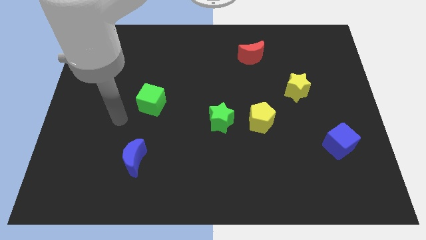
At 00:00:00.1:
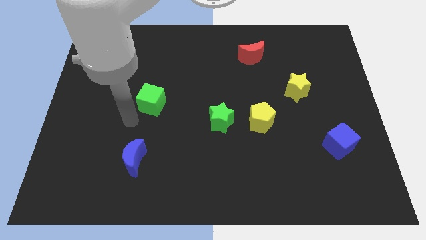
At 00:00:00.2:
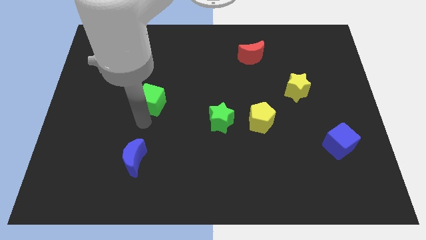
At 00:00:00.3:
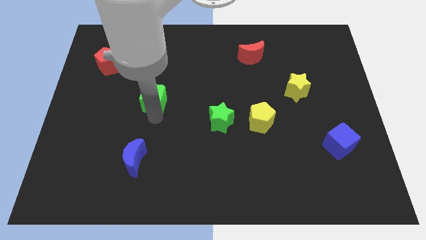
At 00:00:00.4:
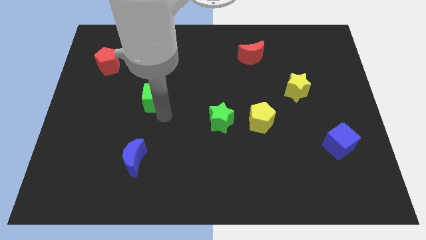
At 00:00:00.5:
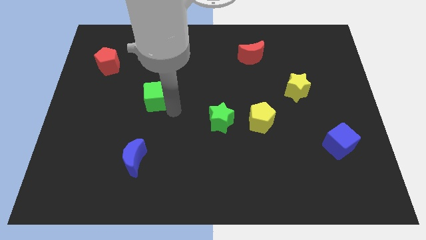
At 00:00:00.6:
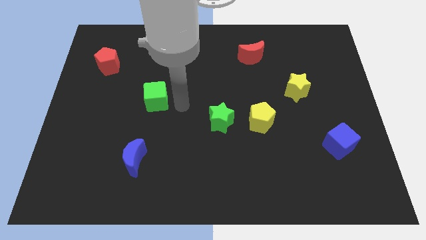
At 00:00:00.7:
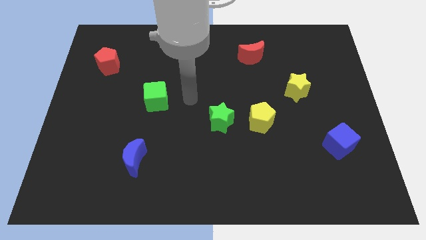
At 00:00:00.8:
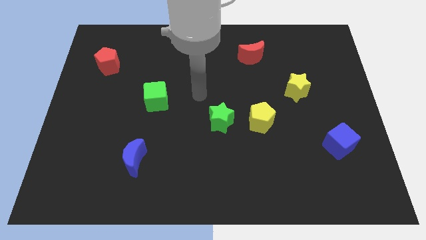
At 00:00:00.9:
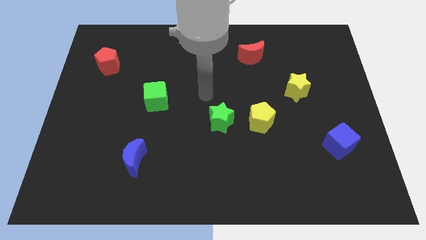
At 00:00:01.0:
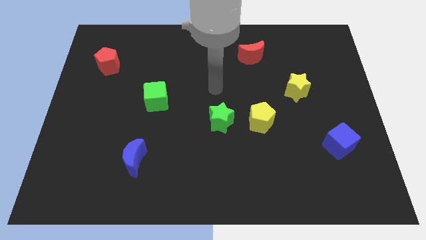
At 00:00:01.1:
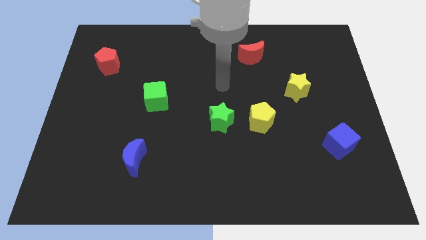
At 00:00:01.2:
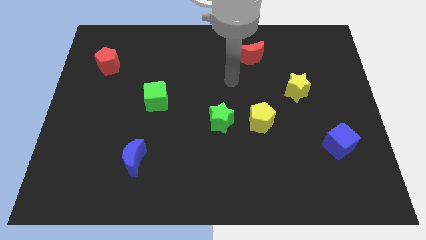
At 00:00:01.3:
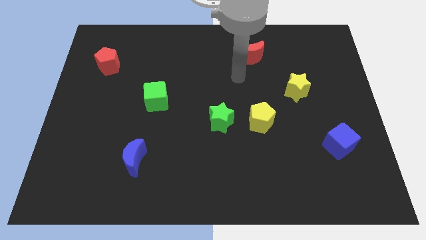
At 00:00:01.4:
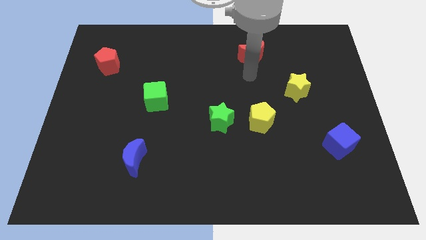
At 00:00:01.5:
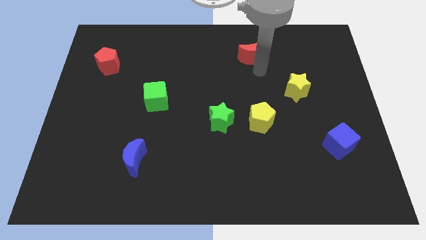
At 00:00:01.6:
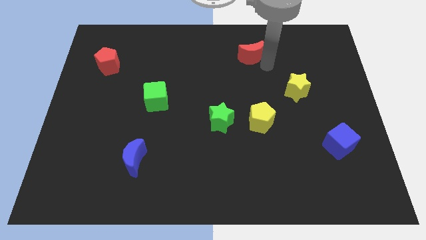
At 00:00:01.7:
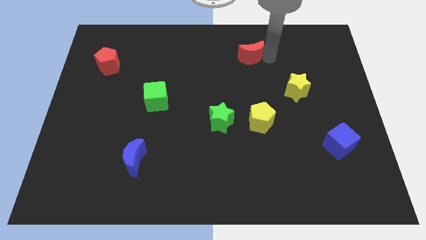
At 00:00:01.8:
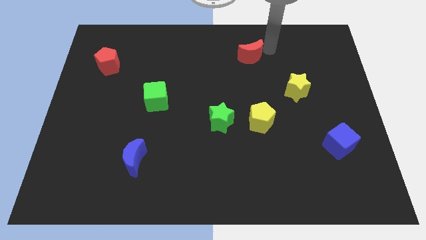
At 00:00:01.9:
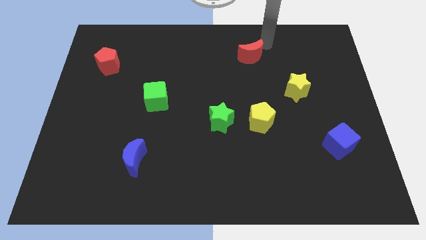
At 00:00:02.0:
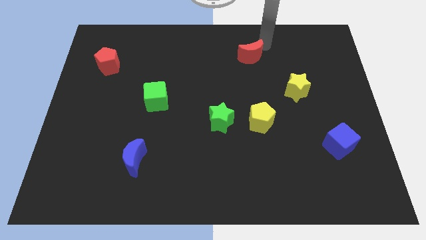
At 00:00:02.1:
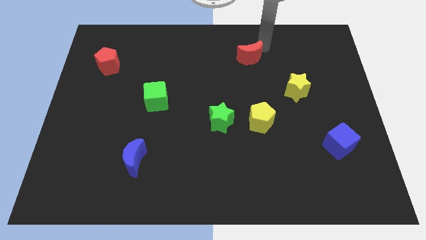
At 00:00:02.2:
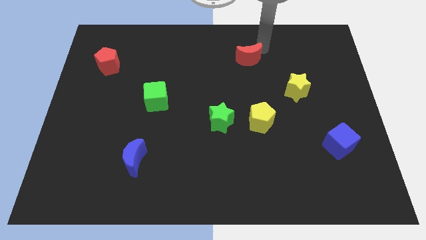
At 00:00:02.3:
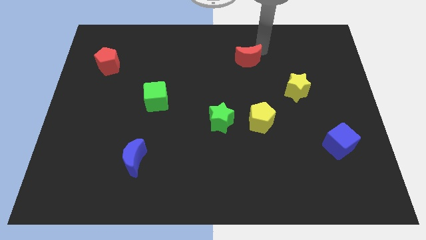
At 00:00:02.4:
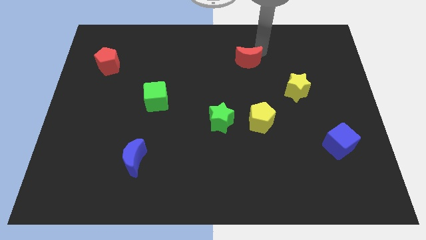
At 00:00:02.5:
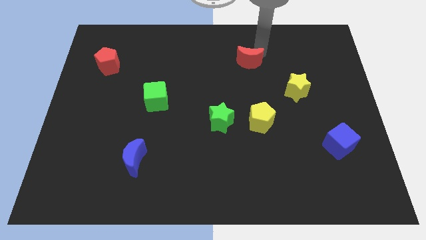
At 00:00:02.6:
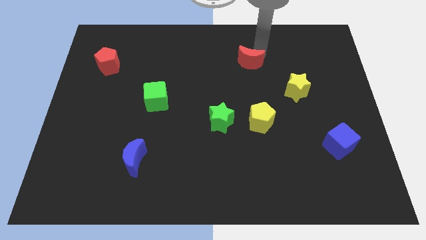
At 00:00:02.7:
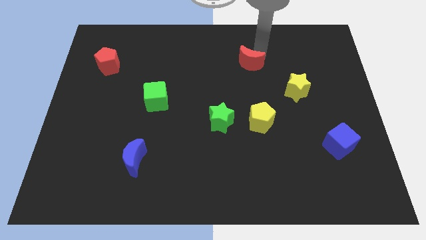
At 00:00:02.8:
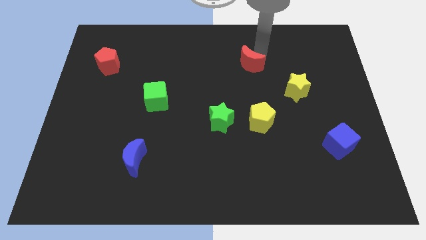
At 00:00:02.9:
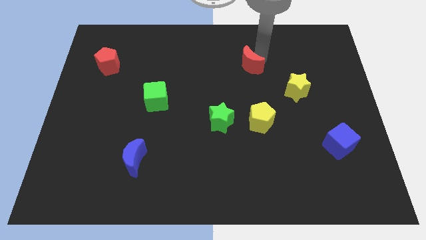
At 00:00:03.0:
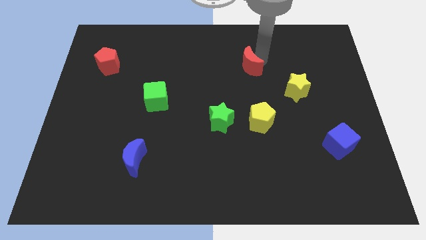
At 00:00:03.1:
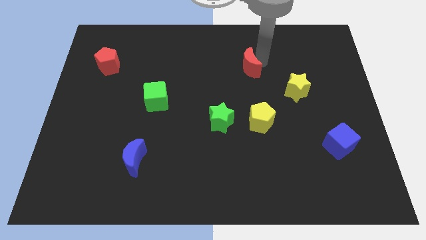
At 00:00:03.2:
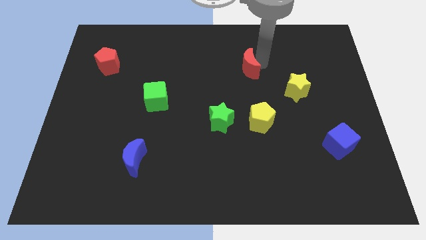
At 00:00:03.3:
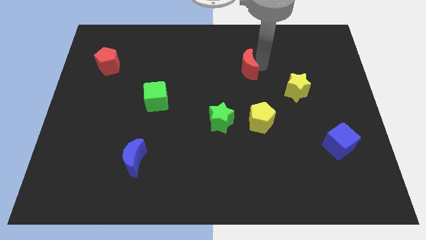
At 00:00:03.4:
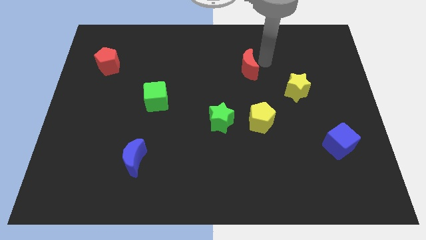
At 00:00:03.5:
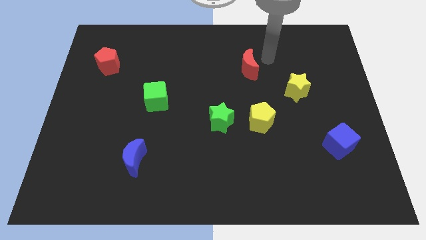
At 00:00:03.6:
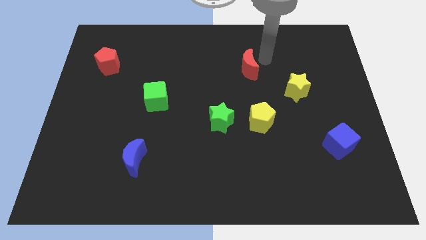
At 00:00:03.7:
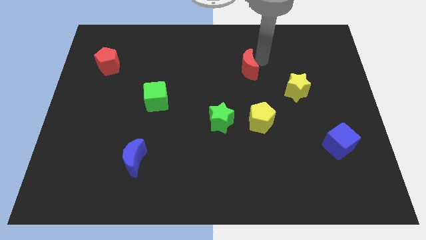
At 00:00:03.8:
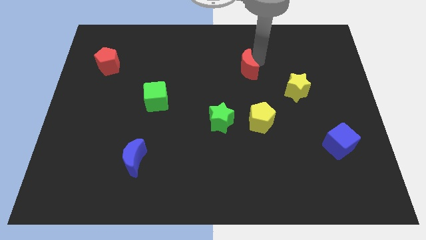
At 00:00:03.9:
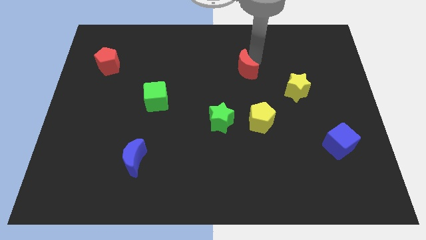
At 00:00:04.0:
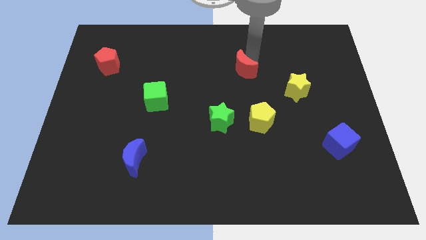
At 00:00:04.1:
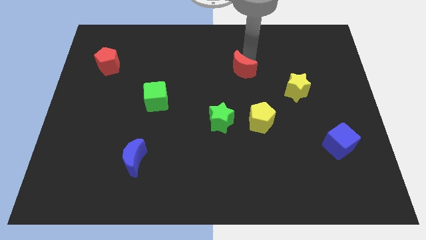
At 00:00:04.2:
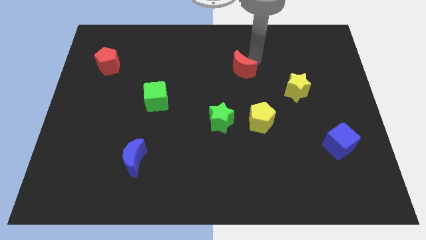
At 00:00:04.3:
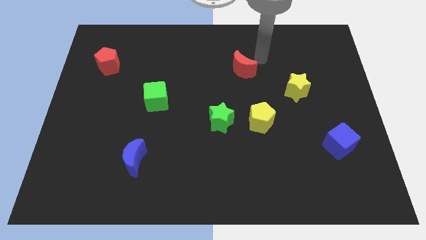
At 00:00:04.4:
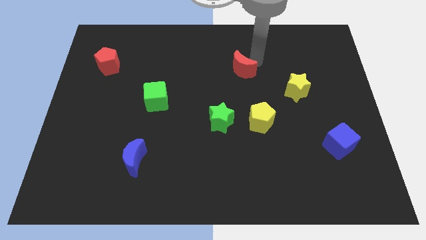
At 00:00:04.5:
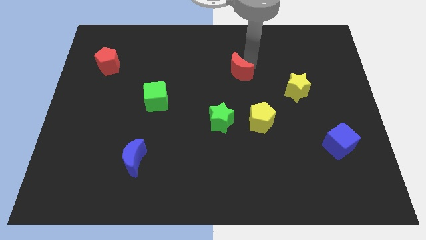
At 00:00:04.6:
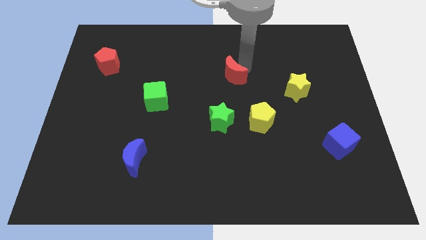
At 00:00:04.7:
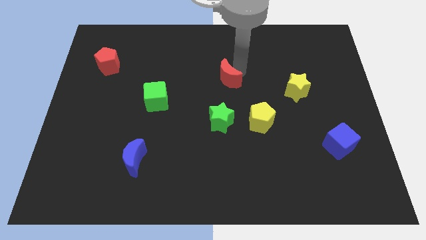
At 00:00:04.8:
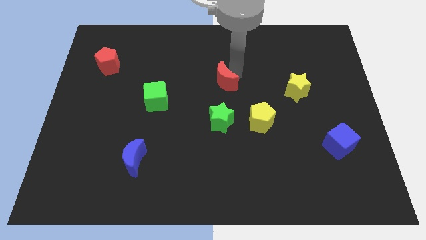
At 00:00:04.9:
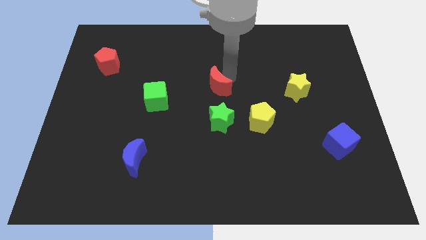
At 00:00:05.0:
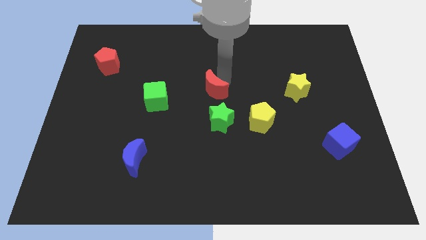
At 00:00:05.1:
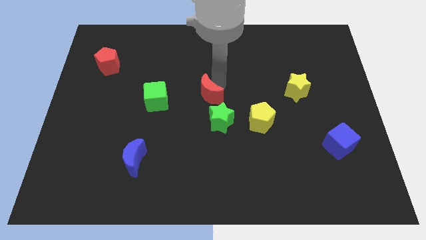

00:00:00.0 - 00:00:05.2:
slide the red moon to the top left of the green star

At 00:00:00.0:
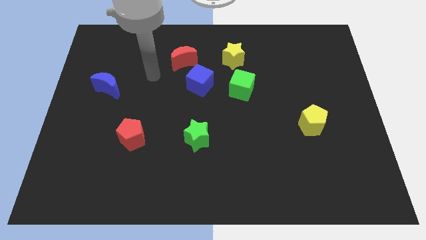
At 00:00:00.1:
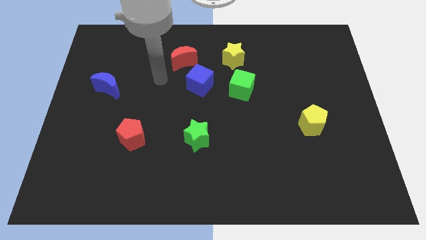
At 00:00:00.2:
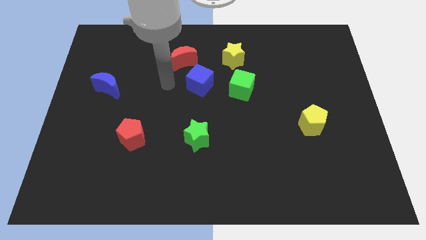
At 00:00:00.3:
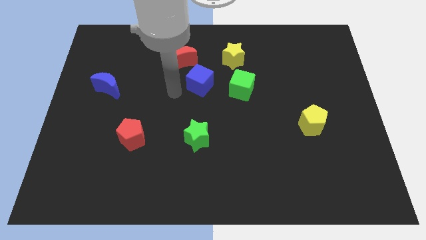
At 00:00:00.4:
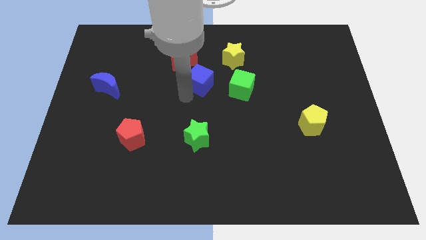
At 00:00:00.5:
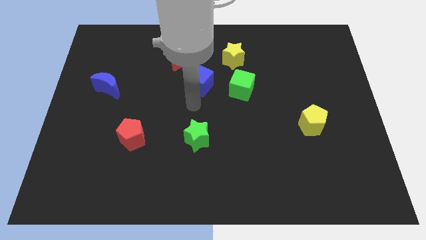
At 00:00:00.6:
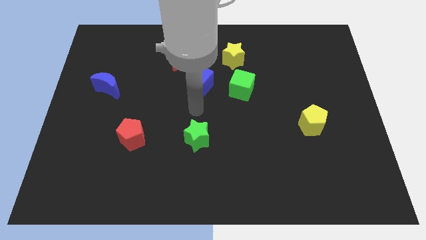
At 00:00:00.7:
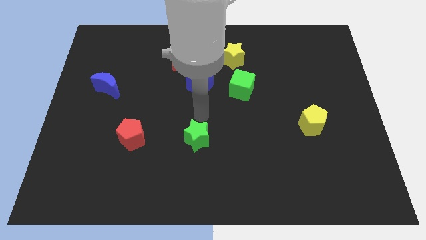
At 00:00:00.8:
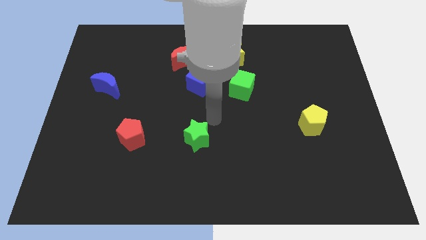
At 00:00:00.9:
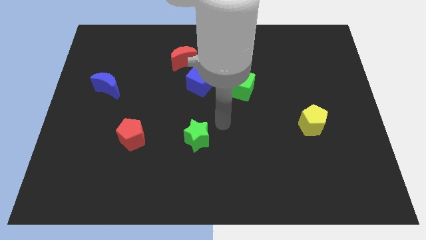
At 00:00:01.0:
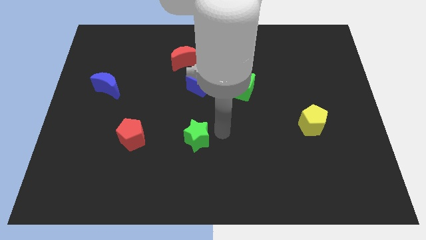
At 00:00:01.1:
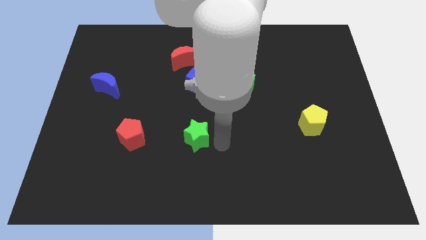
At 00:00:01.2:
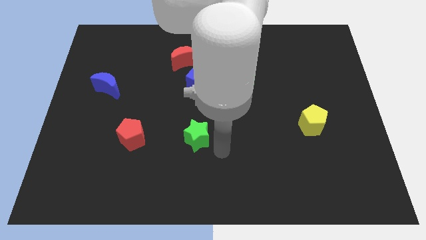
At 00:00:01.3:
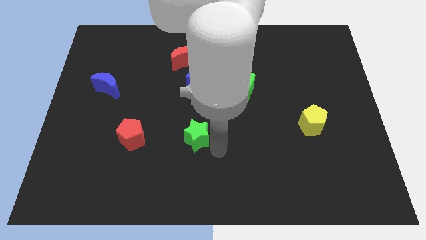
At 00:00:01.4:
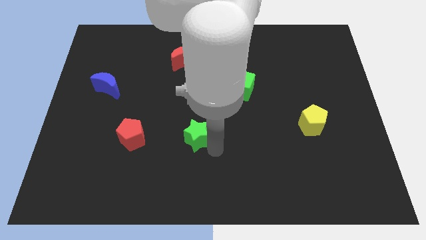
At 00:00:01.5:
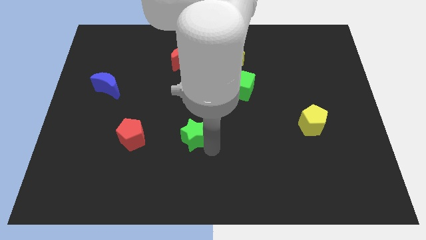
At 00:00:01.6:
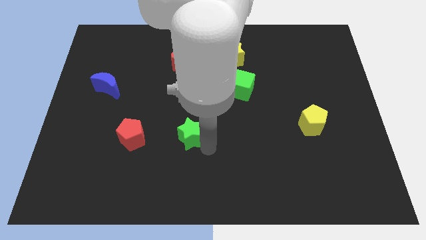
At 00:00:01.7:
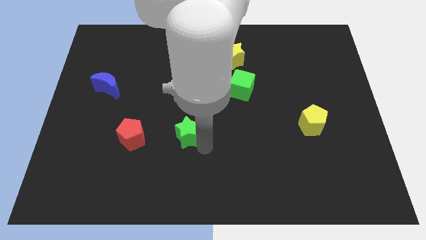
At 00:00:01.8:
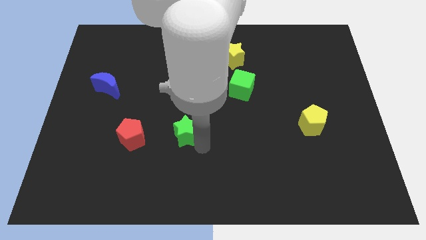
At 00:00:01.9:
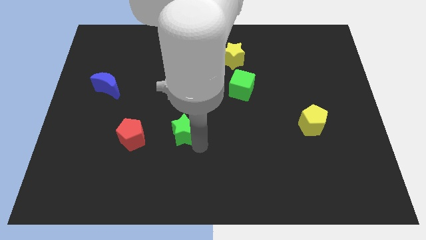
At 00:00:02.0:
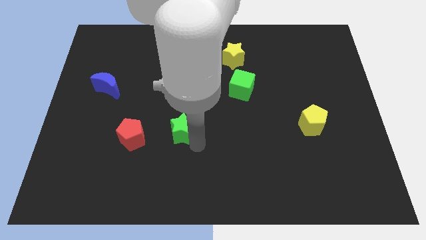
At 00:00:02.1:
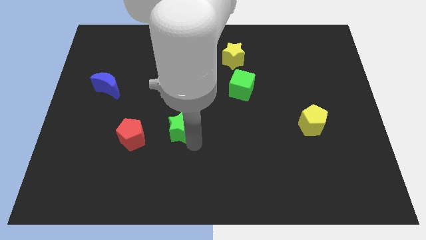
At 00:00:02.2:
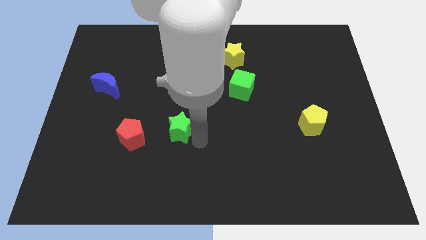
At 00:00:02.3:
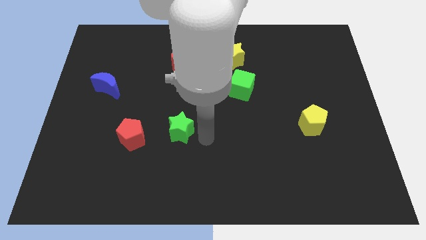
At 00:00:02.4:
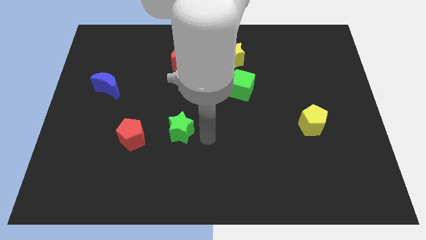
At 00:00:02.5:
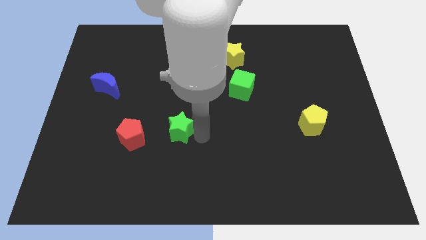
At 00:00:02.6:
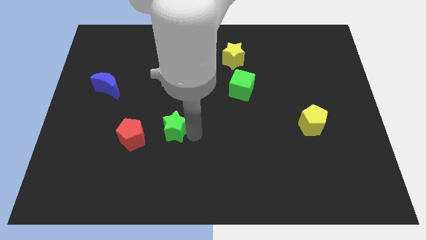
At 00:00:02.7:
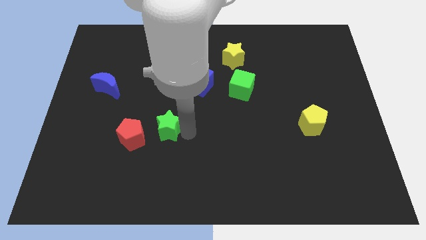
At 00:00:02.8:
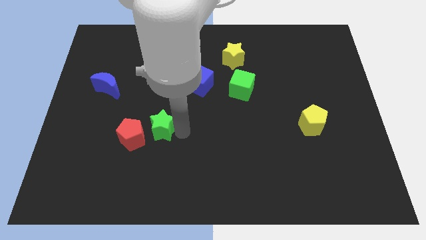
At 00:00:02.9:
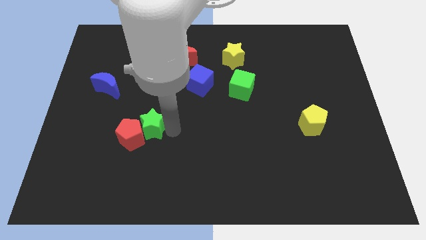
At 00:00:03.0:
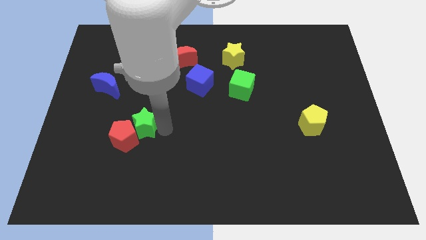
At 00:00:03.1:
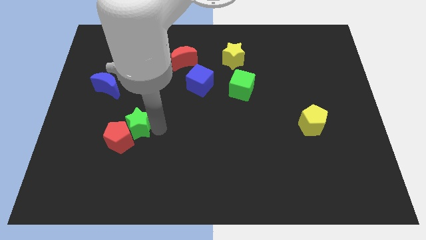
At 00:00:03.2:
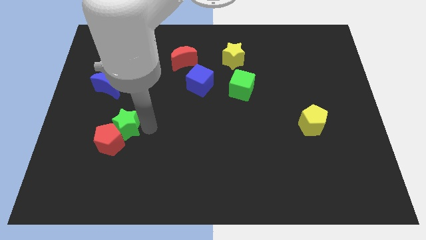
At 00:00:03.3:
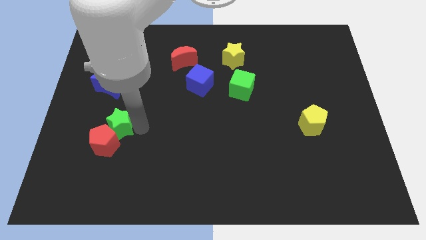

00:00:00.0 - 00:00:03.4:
push the green star below the blue moon
